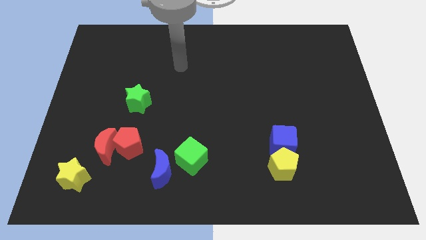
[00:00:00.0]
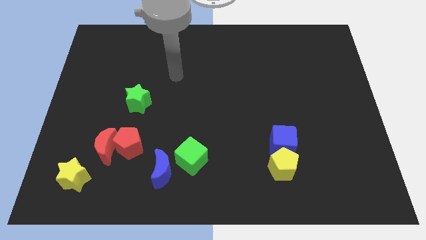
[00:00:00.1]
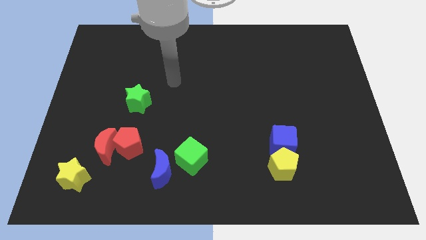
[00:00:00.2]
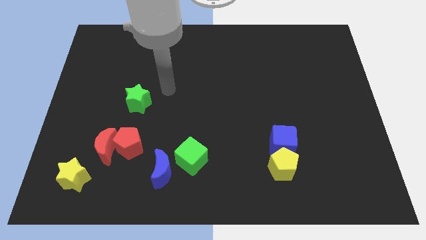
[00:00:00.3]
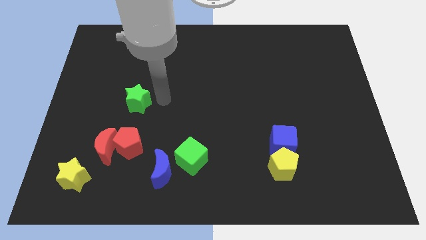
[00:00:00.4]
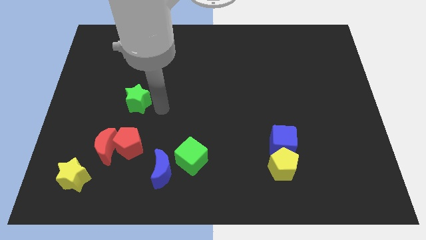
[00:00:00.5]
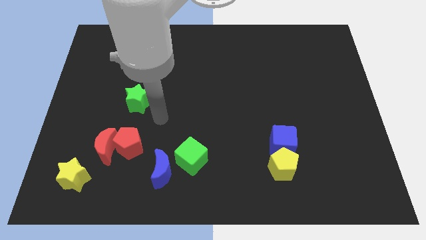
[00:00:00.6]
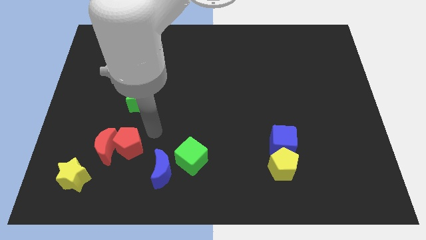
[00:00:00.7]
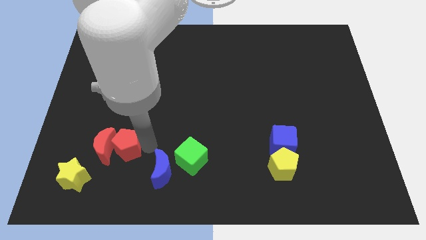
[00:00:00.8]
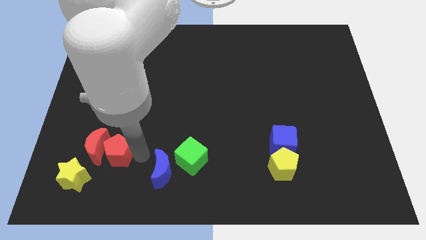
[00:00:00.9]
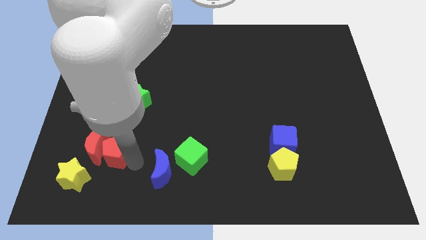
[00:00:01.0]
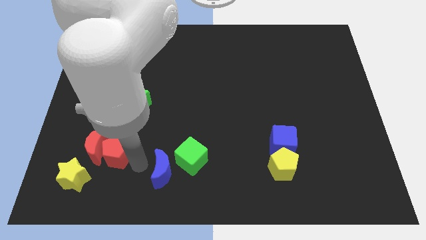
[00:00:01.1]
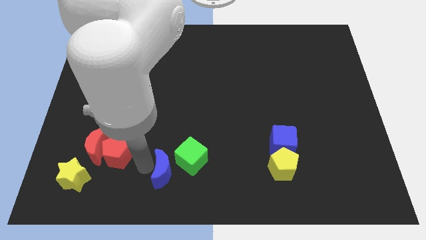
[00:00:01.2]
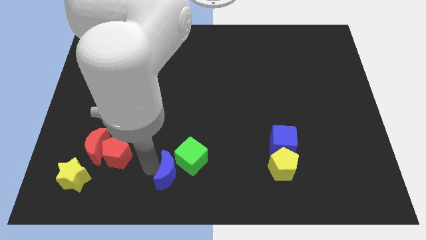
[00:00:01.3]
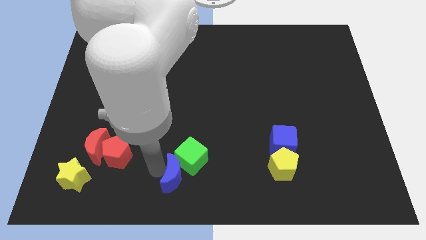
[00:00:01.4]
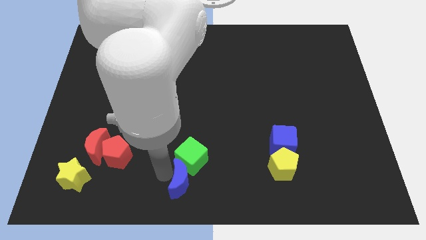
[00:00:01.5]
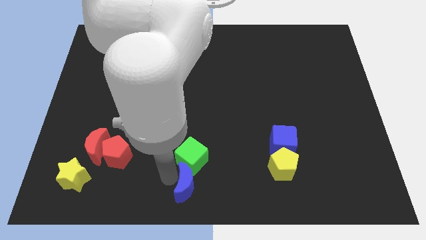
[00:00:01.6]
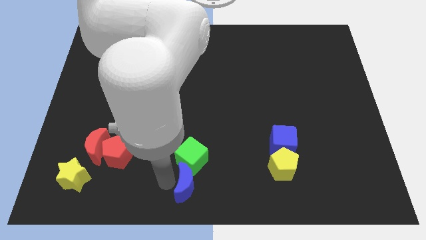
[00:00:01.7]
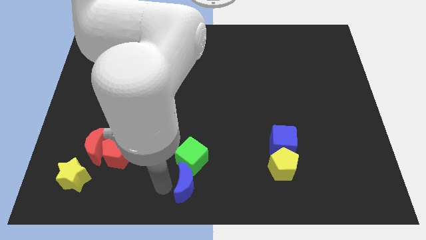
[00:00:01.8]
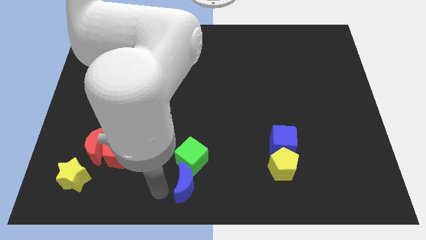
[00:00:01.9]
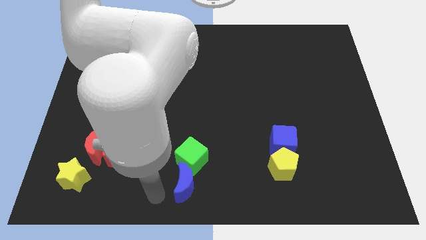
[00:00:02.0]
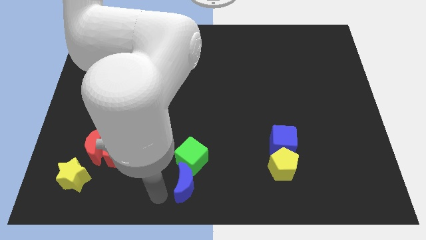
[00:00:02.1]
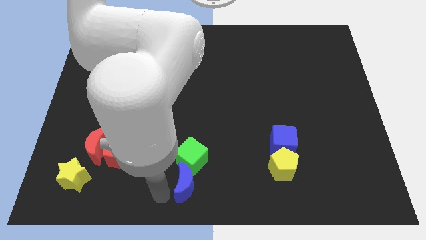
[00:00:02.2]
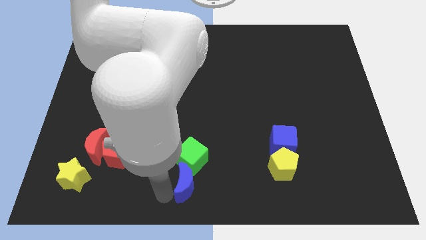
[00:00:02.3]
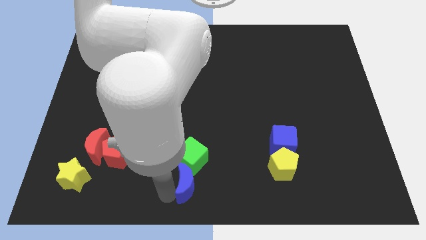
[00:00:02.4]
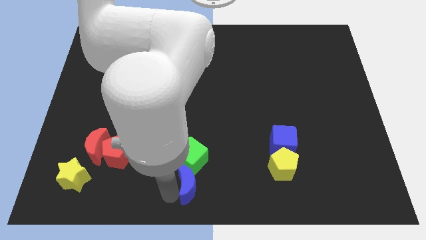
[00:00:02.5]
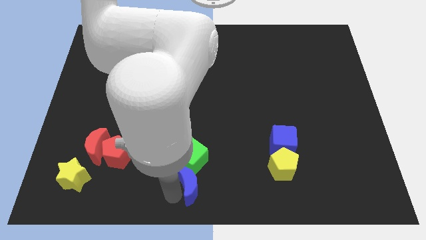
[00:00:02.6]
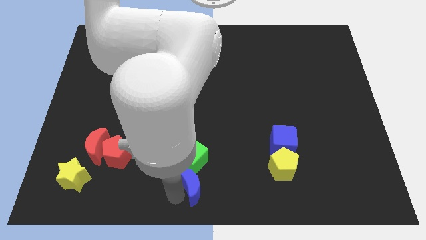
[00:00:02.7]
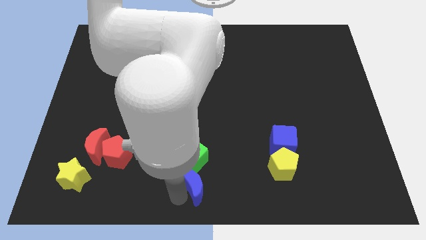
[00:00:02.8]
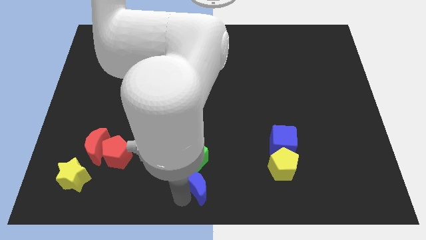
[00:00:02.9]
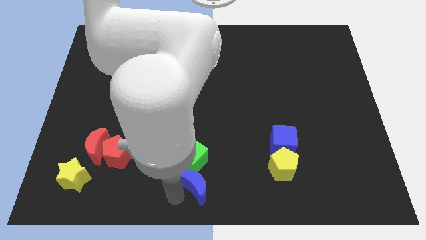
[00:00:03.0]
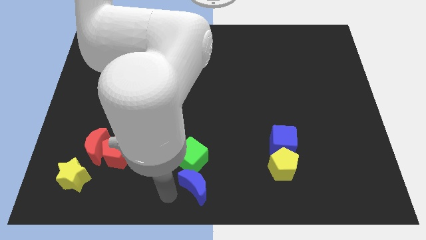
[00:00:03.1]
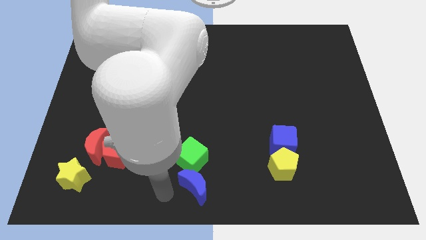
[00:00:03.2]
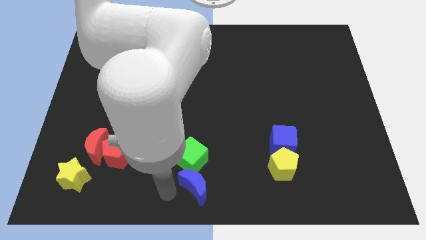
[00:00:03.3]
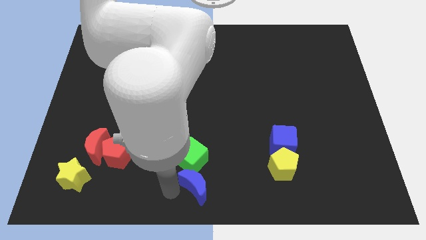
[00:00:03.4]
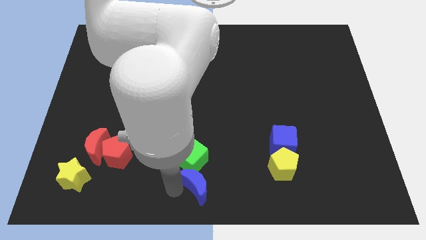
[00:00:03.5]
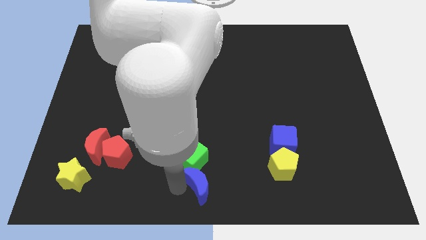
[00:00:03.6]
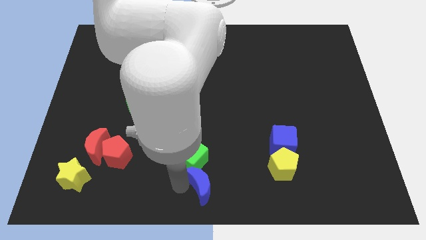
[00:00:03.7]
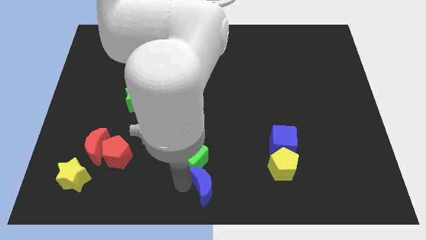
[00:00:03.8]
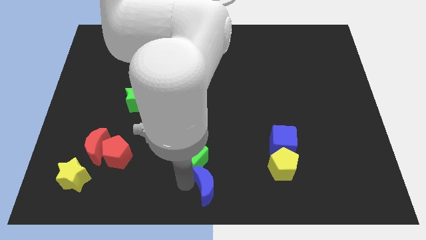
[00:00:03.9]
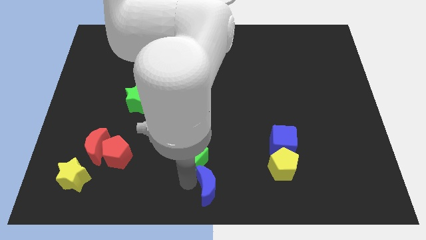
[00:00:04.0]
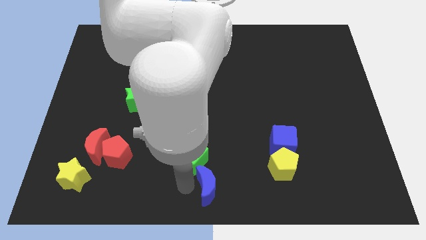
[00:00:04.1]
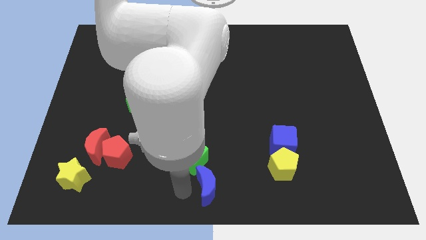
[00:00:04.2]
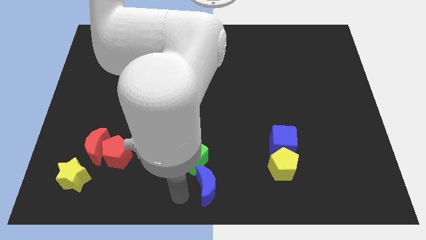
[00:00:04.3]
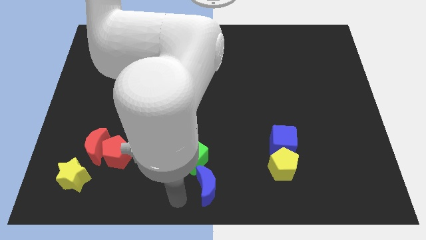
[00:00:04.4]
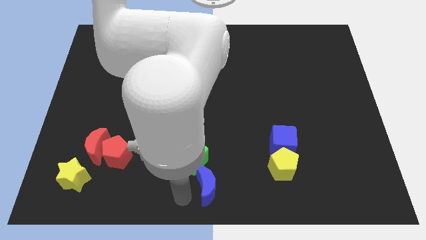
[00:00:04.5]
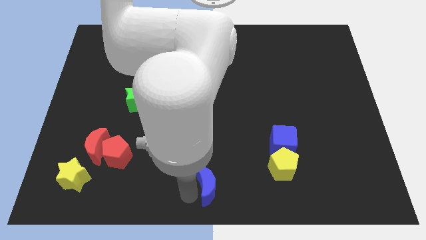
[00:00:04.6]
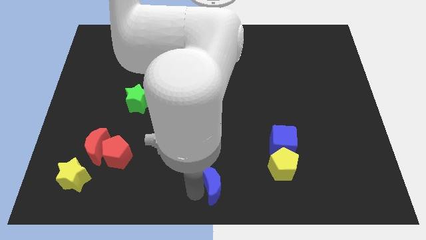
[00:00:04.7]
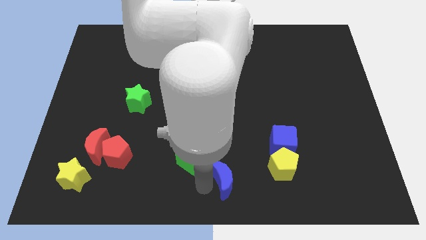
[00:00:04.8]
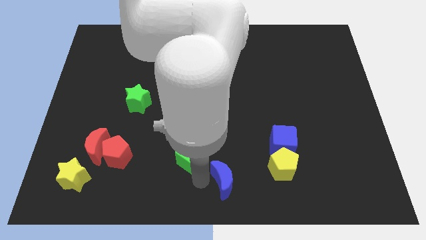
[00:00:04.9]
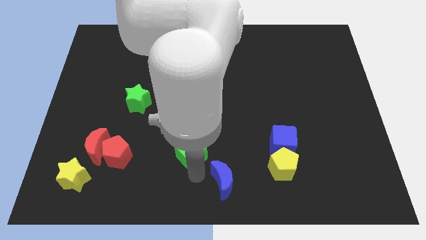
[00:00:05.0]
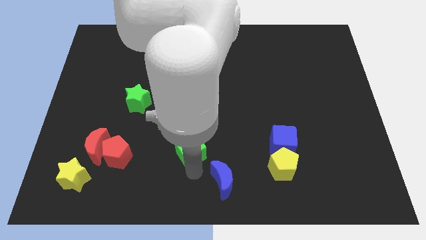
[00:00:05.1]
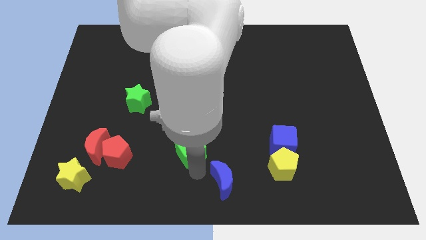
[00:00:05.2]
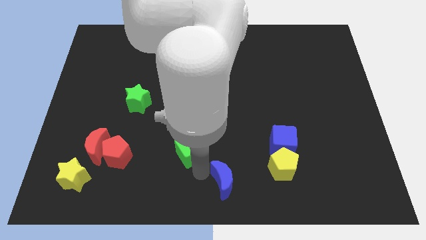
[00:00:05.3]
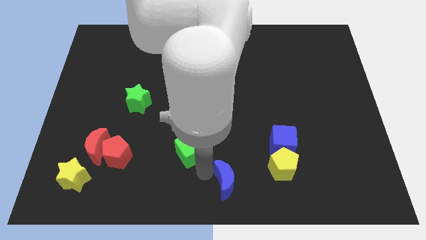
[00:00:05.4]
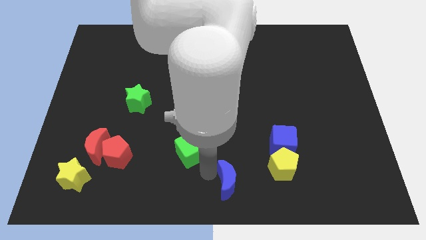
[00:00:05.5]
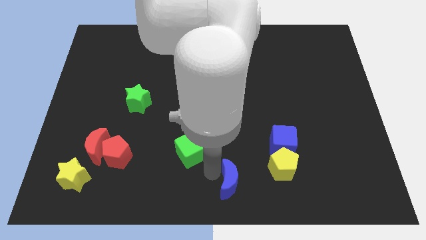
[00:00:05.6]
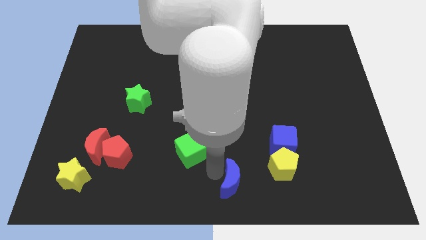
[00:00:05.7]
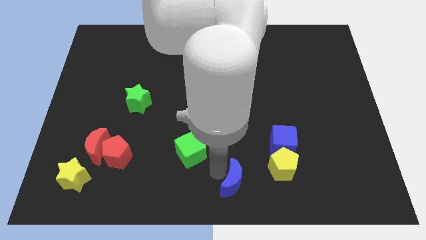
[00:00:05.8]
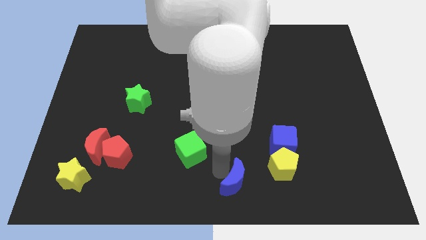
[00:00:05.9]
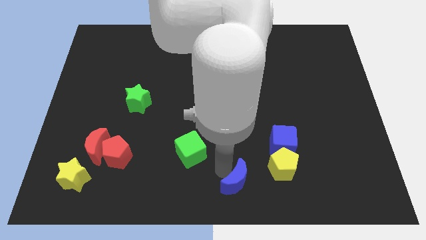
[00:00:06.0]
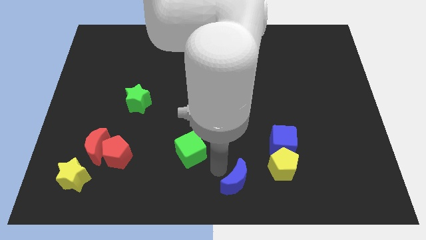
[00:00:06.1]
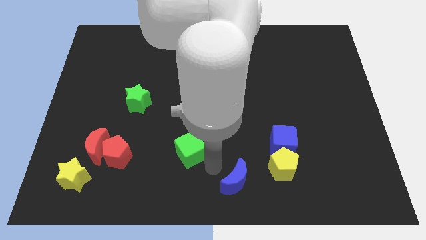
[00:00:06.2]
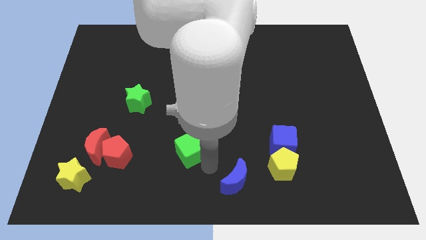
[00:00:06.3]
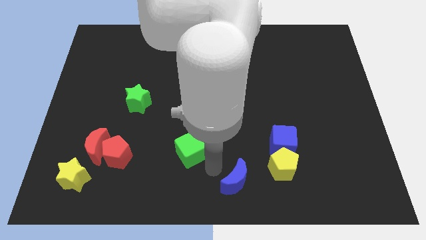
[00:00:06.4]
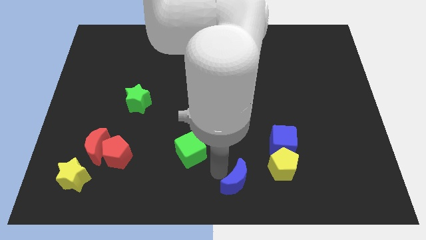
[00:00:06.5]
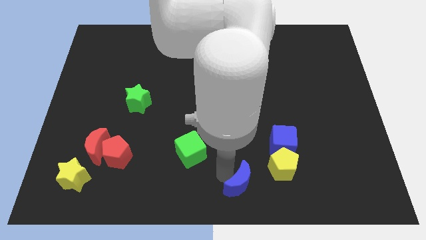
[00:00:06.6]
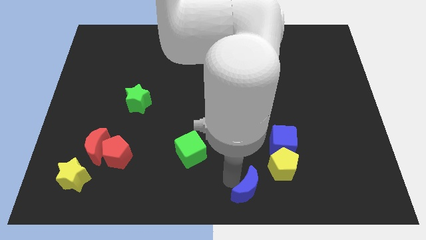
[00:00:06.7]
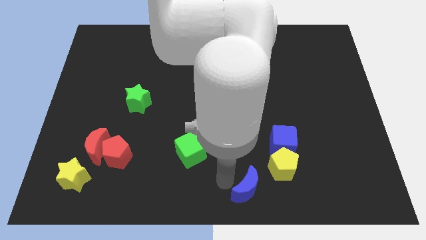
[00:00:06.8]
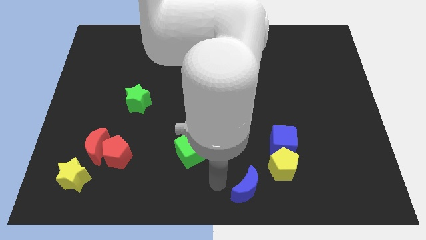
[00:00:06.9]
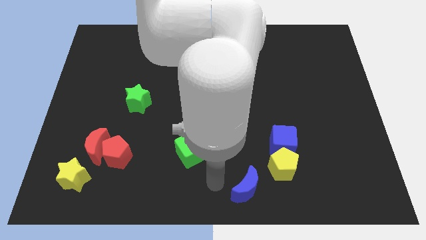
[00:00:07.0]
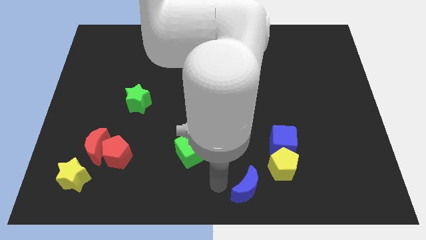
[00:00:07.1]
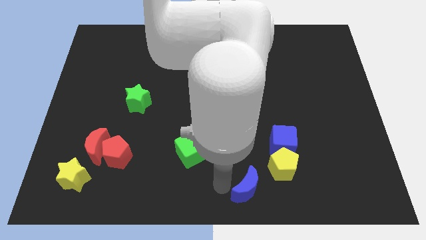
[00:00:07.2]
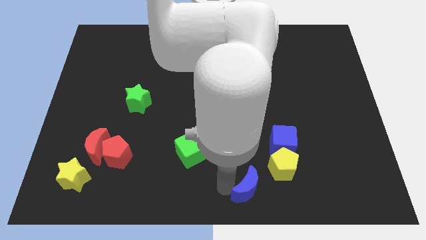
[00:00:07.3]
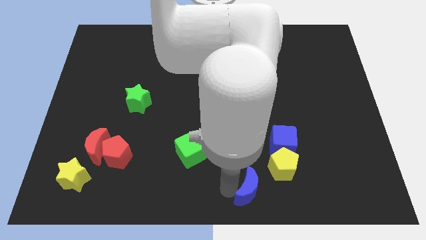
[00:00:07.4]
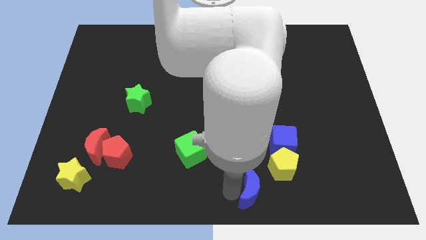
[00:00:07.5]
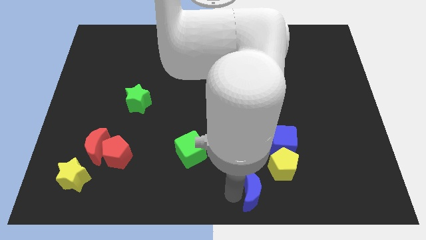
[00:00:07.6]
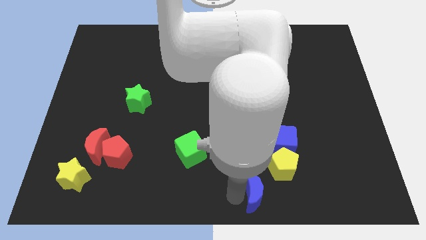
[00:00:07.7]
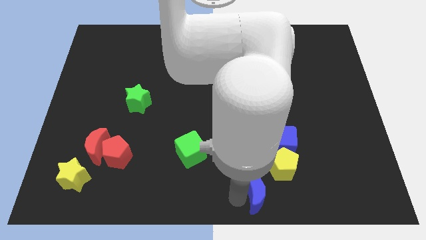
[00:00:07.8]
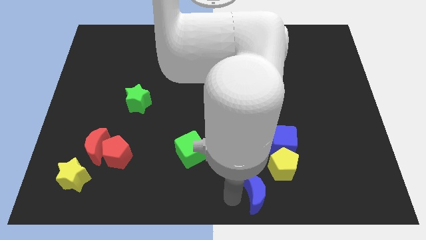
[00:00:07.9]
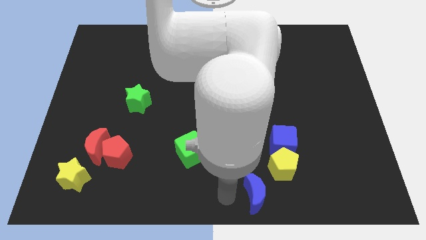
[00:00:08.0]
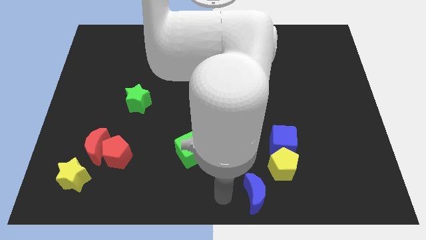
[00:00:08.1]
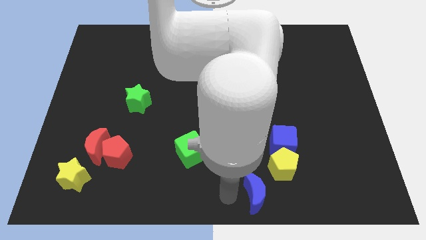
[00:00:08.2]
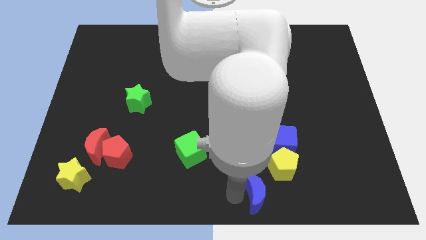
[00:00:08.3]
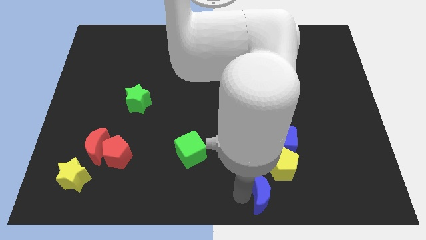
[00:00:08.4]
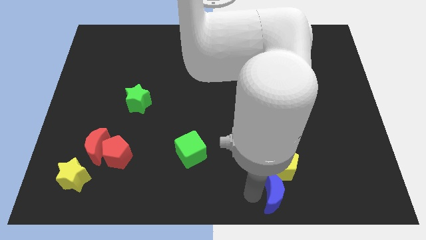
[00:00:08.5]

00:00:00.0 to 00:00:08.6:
slide the blue moon right
